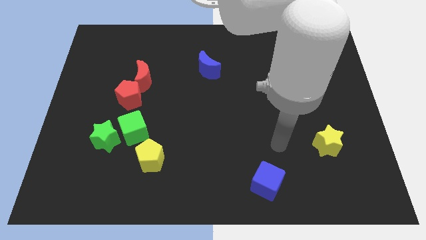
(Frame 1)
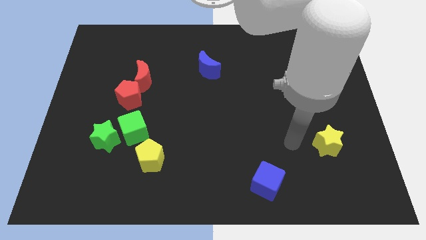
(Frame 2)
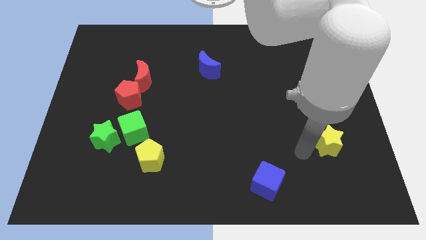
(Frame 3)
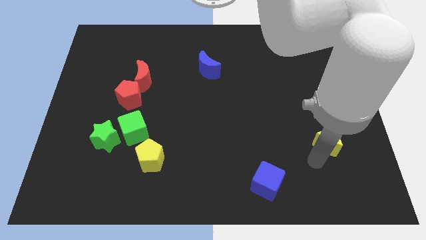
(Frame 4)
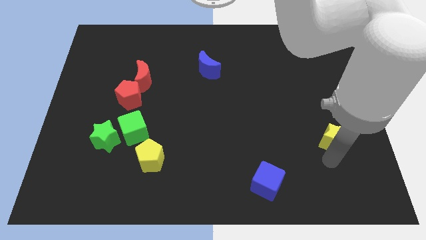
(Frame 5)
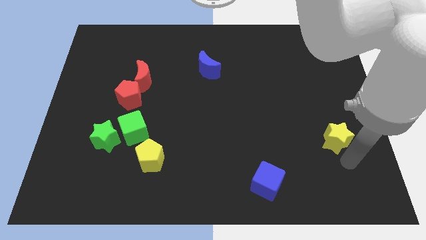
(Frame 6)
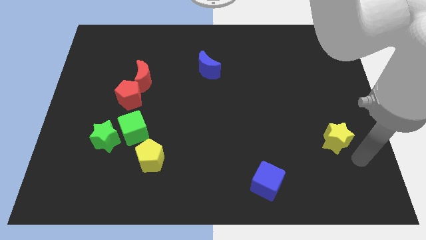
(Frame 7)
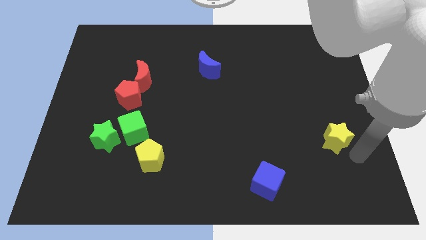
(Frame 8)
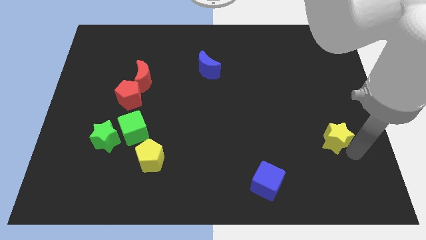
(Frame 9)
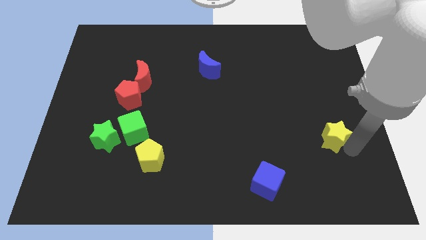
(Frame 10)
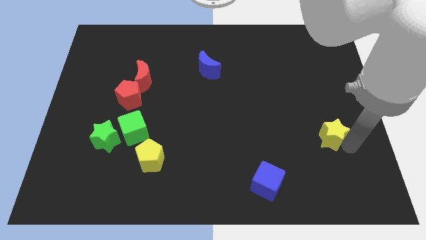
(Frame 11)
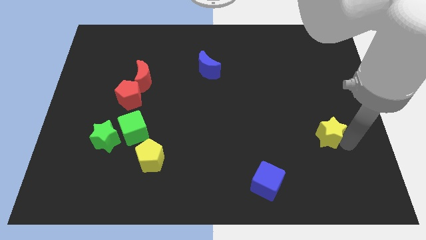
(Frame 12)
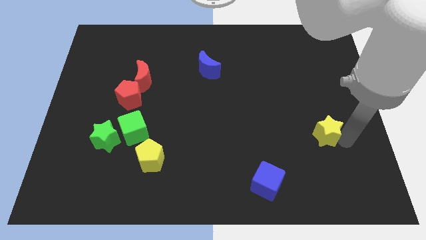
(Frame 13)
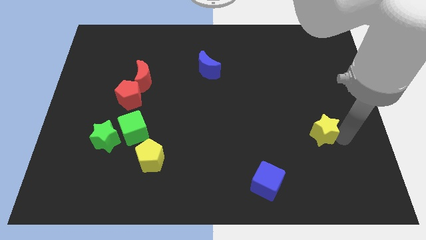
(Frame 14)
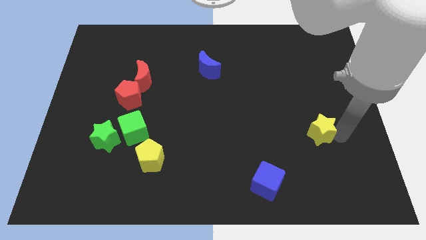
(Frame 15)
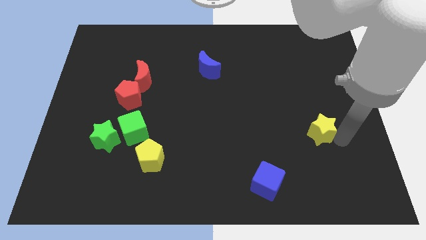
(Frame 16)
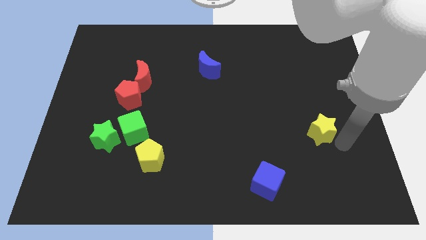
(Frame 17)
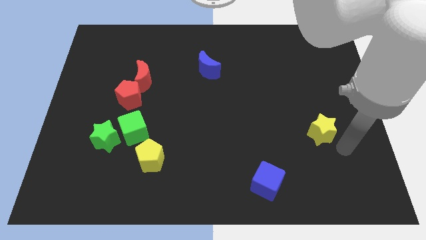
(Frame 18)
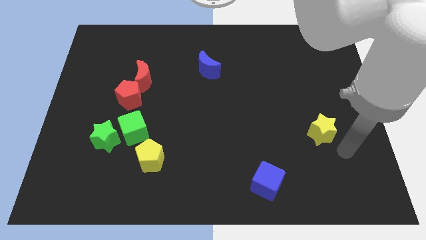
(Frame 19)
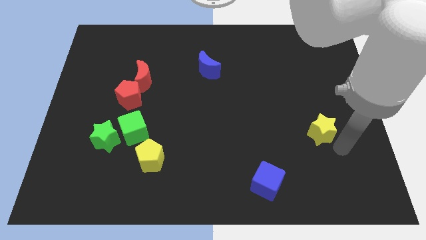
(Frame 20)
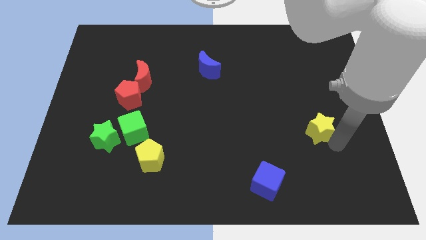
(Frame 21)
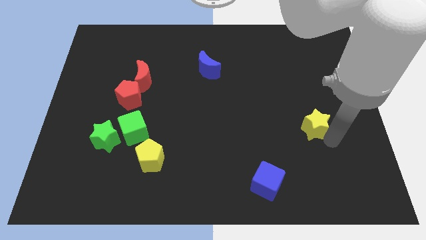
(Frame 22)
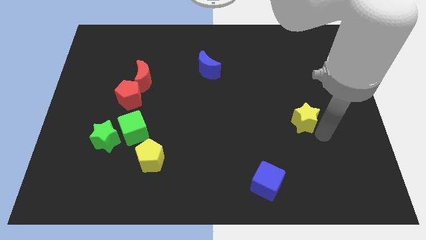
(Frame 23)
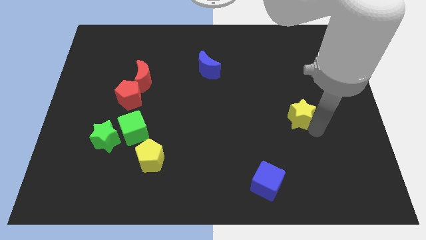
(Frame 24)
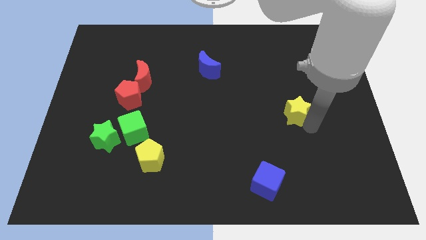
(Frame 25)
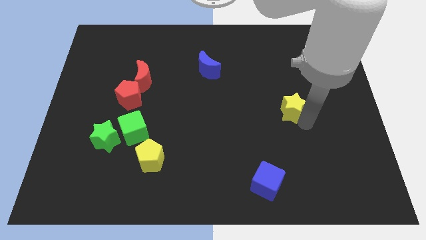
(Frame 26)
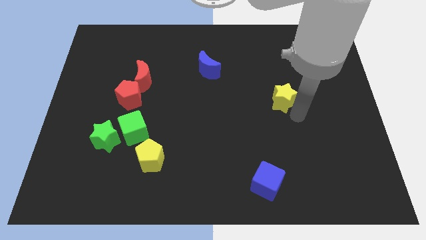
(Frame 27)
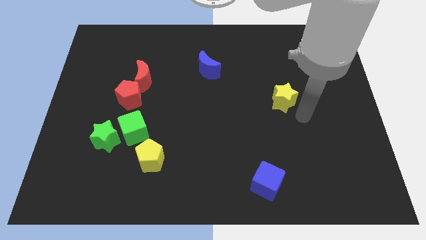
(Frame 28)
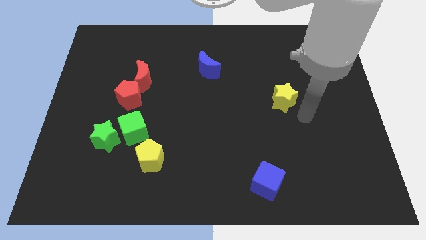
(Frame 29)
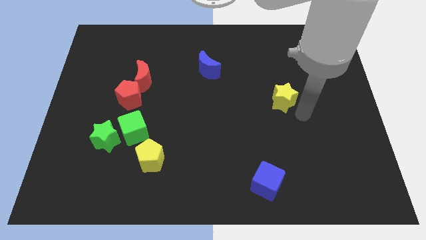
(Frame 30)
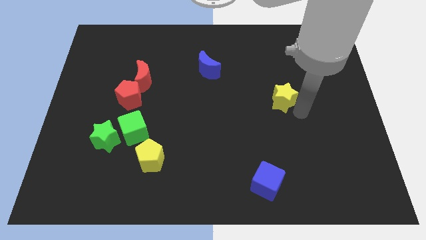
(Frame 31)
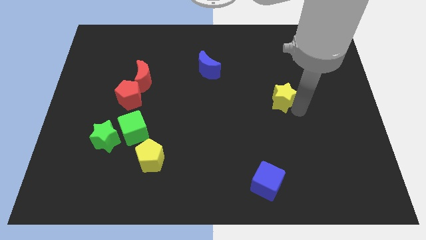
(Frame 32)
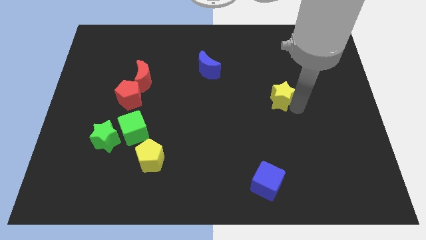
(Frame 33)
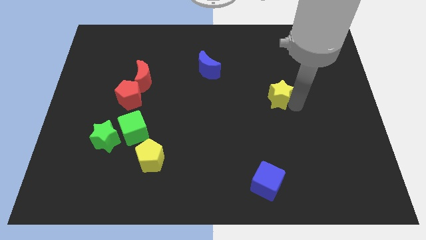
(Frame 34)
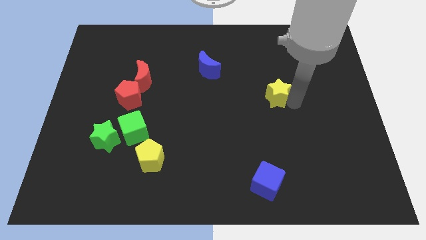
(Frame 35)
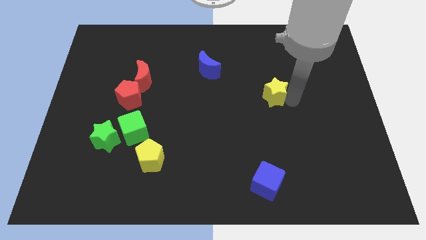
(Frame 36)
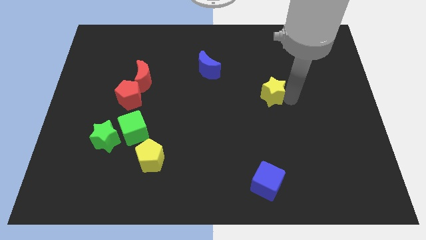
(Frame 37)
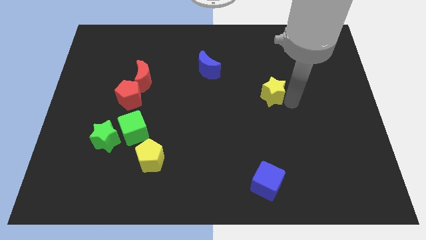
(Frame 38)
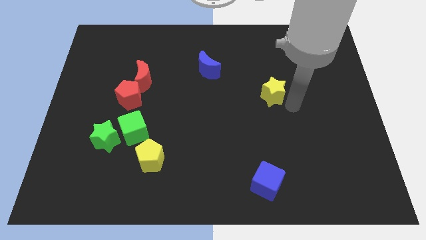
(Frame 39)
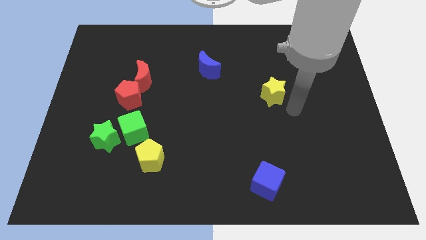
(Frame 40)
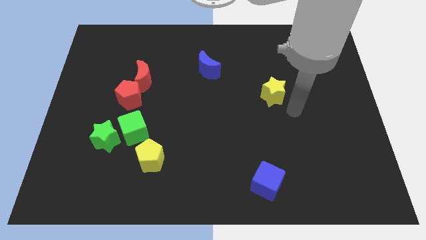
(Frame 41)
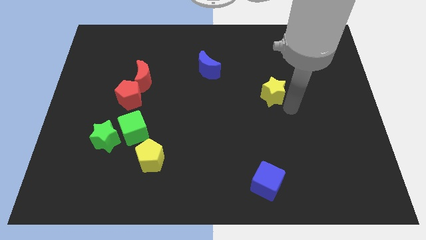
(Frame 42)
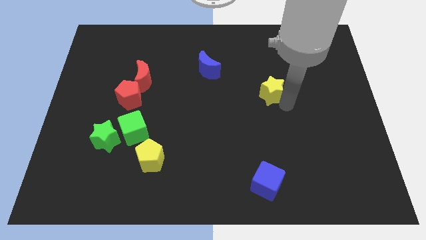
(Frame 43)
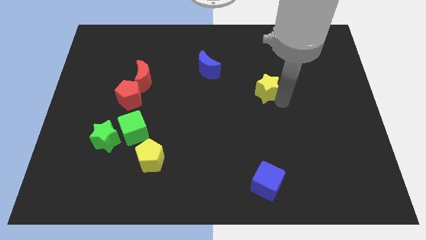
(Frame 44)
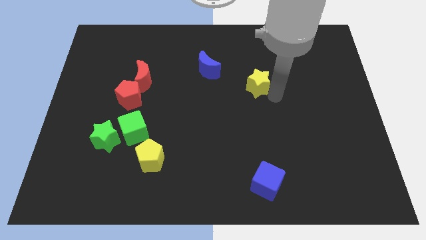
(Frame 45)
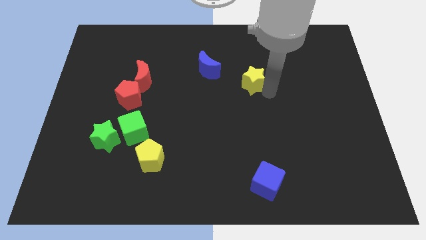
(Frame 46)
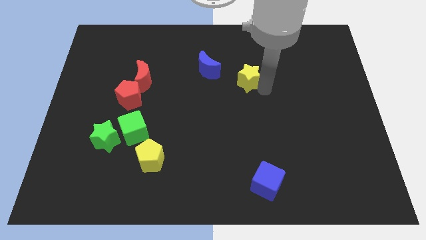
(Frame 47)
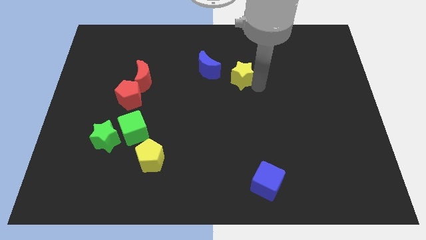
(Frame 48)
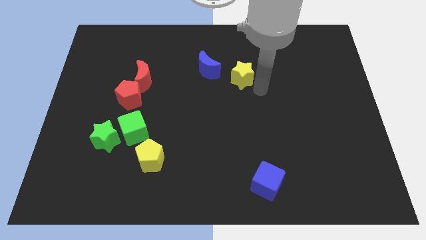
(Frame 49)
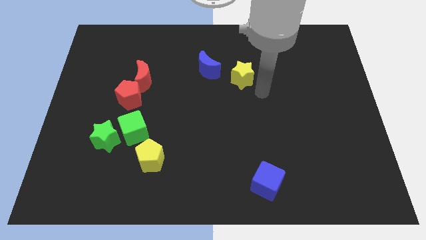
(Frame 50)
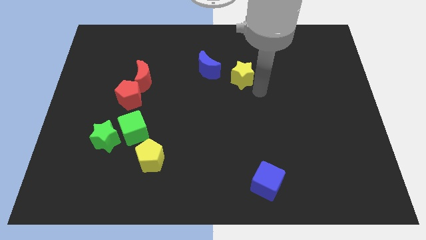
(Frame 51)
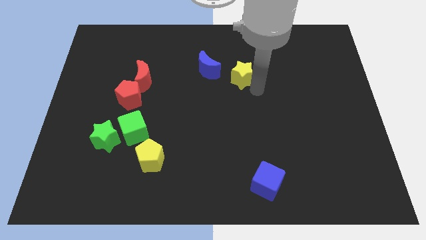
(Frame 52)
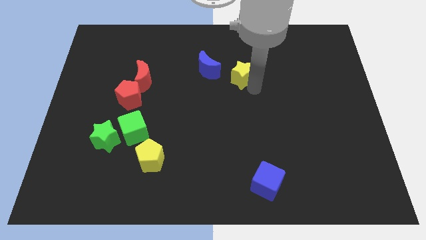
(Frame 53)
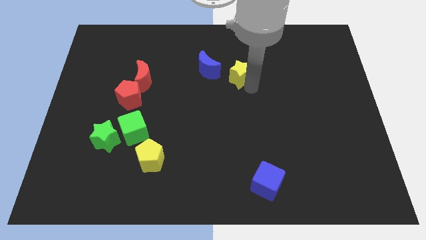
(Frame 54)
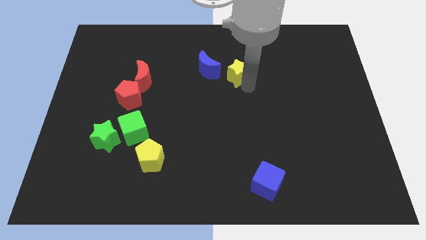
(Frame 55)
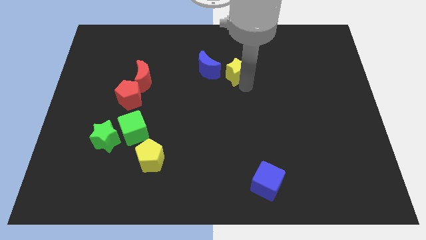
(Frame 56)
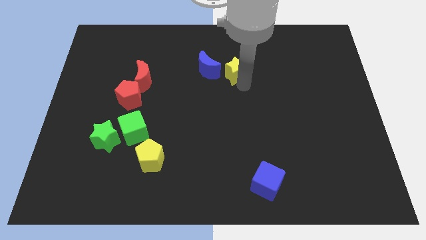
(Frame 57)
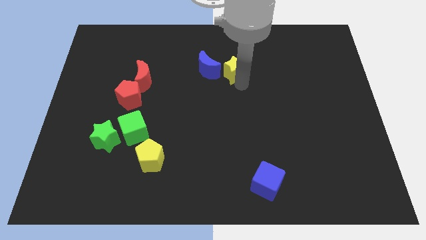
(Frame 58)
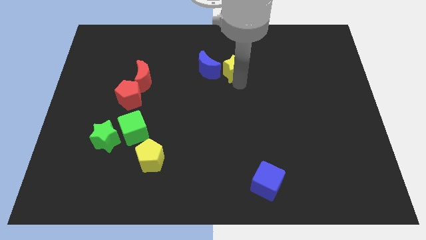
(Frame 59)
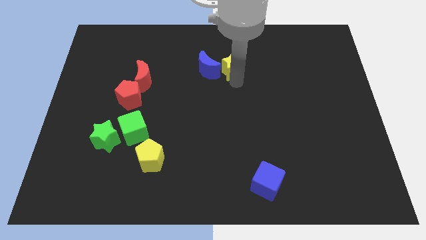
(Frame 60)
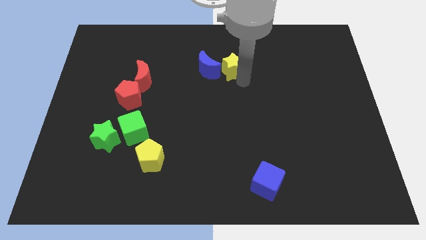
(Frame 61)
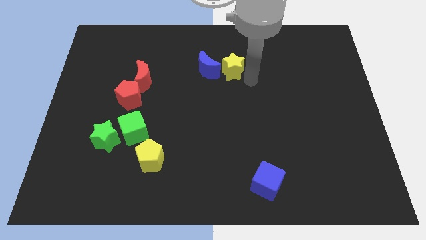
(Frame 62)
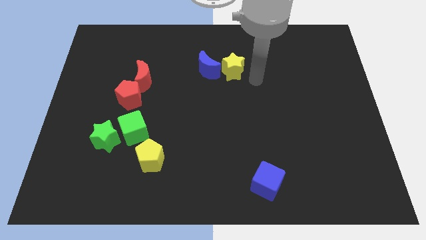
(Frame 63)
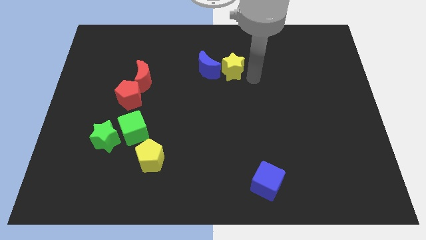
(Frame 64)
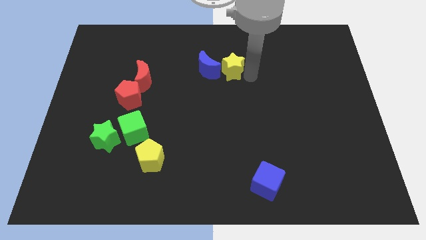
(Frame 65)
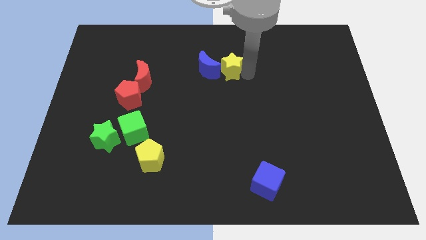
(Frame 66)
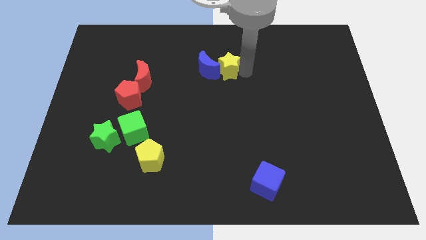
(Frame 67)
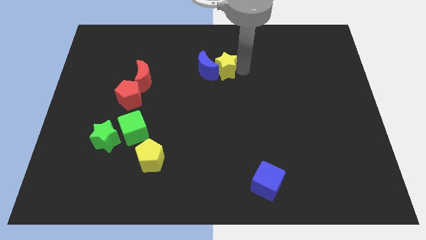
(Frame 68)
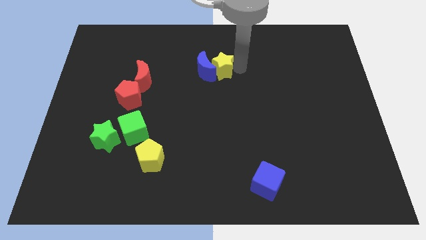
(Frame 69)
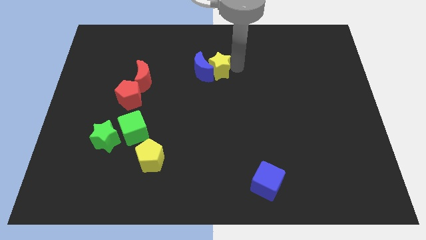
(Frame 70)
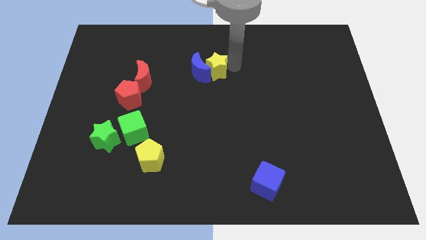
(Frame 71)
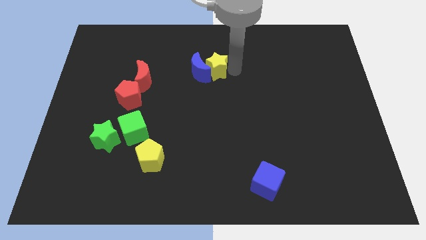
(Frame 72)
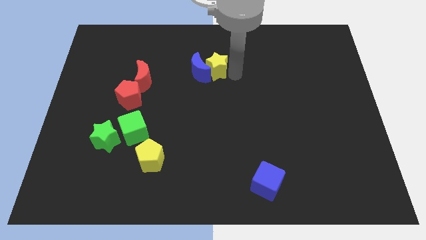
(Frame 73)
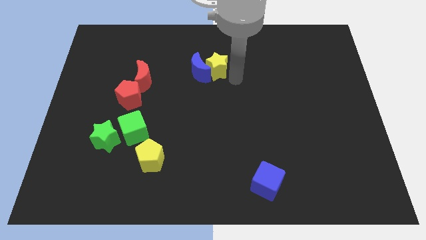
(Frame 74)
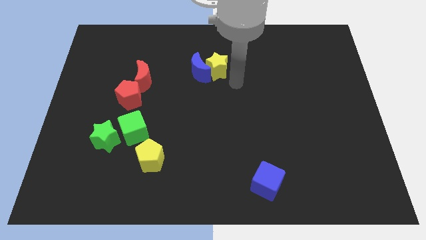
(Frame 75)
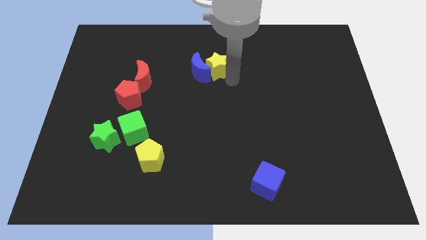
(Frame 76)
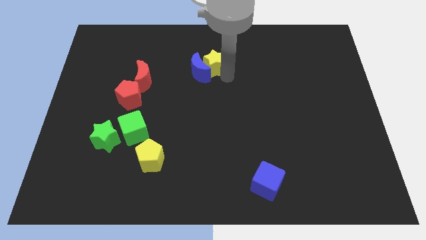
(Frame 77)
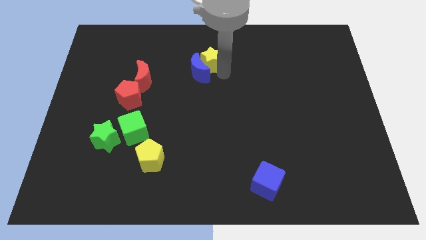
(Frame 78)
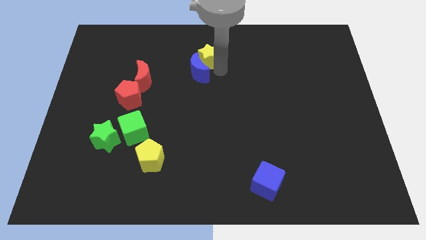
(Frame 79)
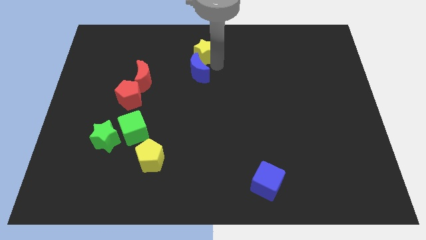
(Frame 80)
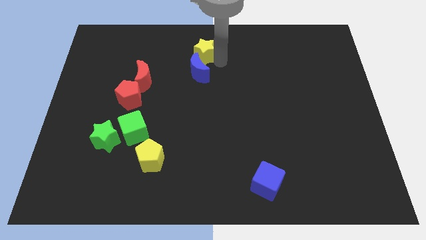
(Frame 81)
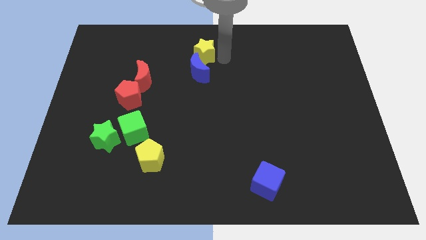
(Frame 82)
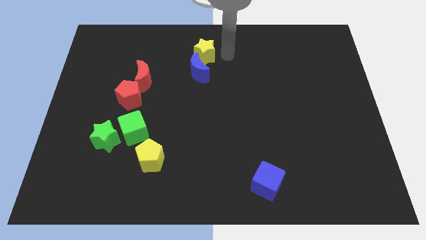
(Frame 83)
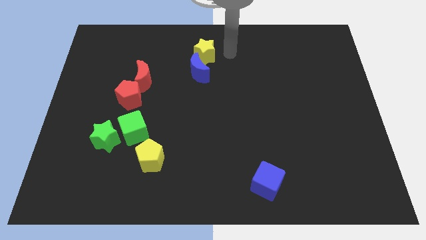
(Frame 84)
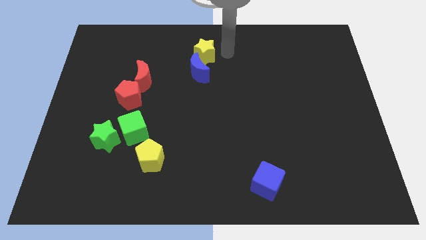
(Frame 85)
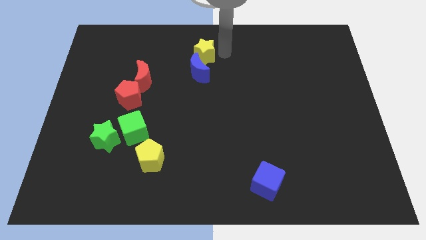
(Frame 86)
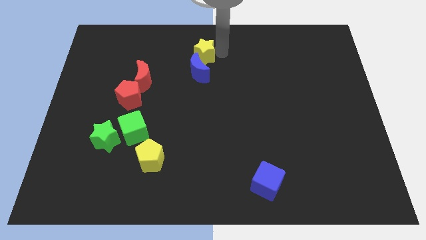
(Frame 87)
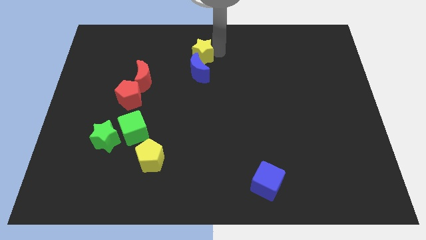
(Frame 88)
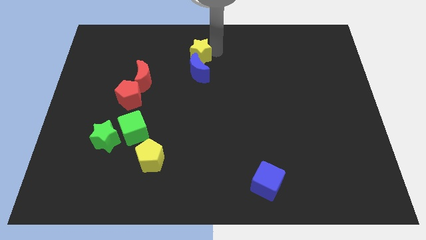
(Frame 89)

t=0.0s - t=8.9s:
slide the yellow star diagonally up and to the left of the blue moon
